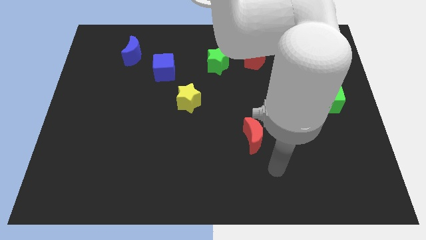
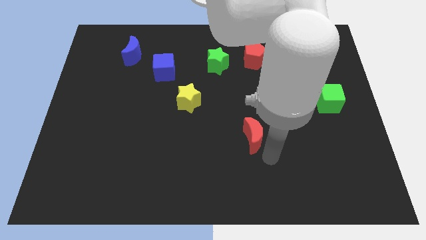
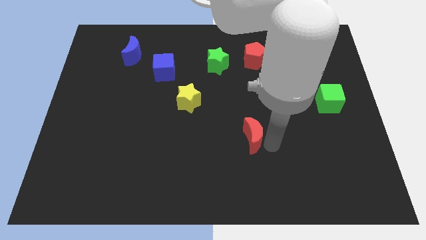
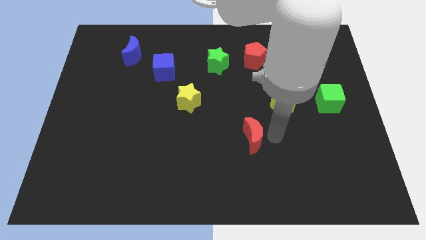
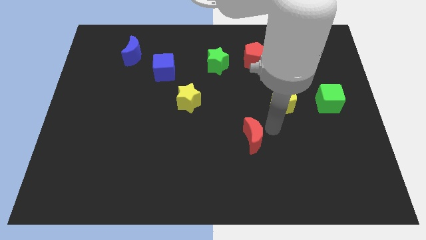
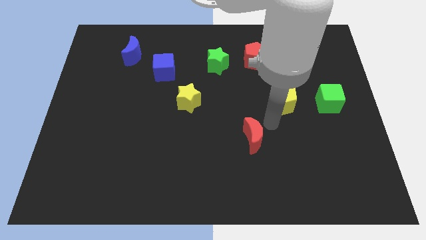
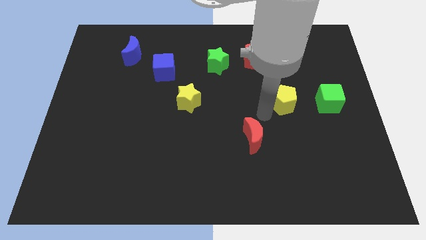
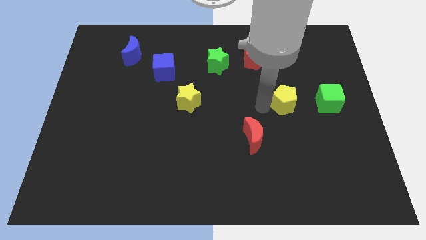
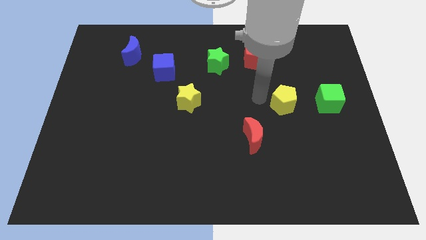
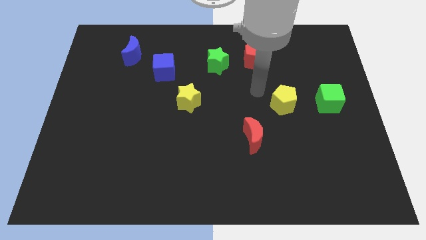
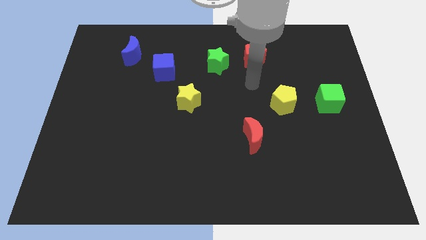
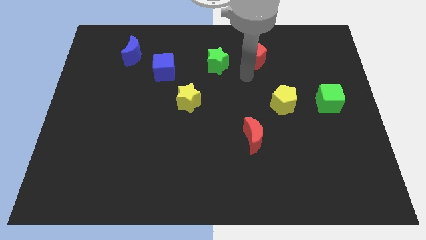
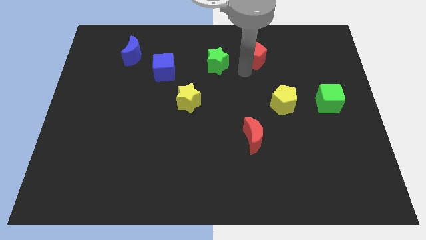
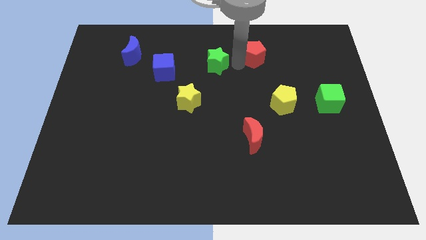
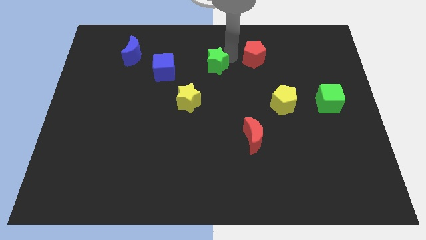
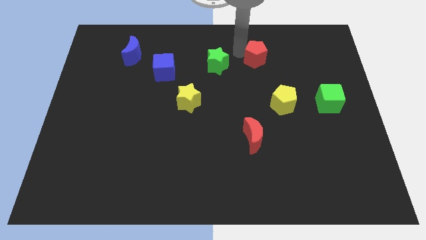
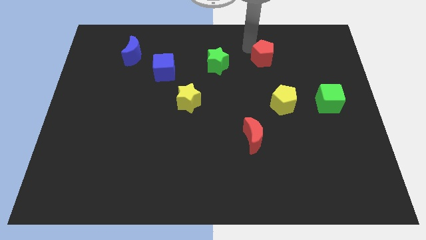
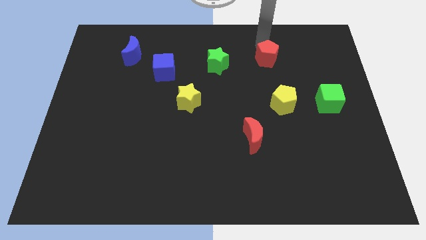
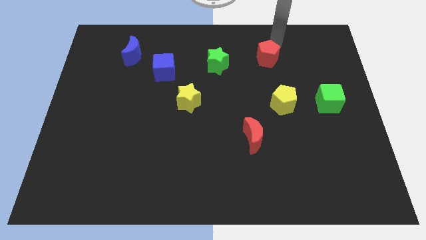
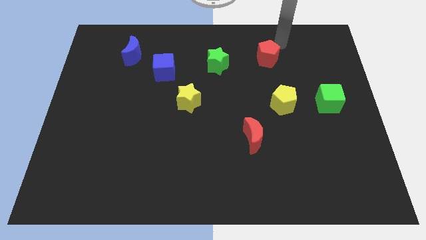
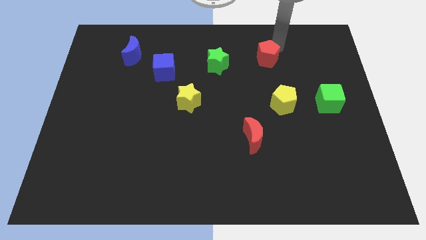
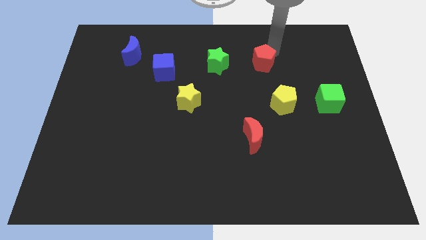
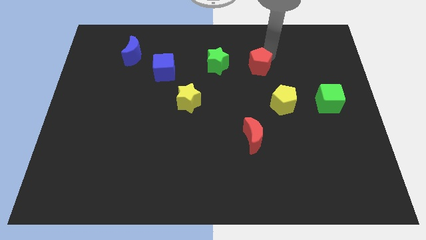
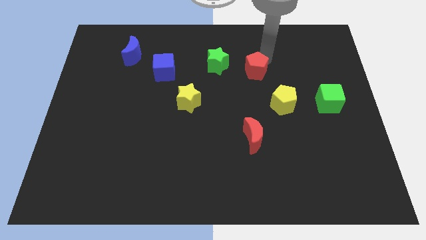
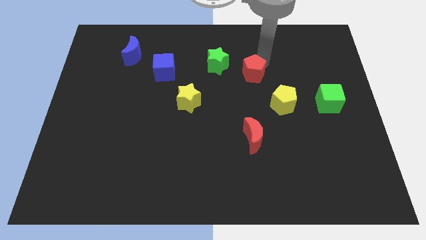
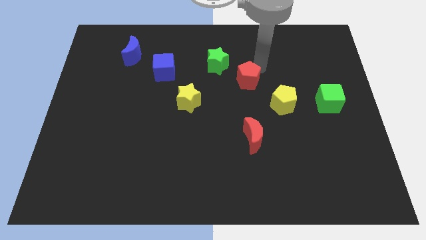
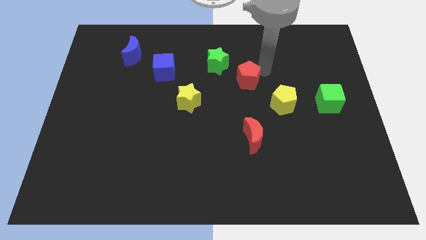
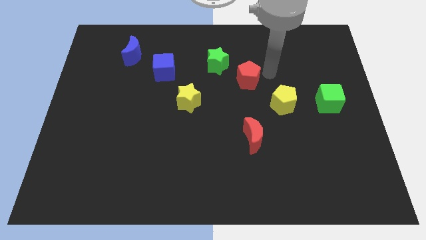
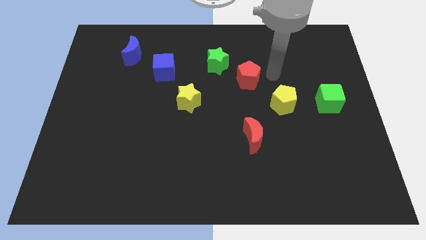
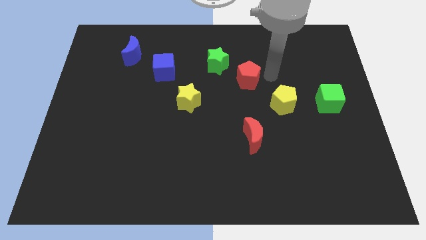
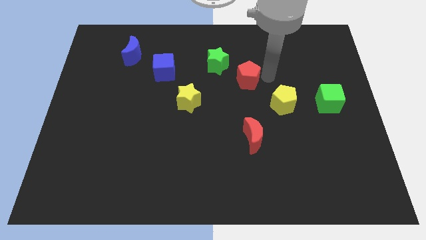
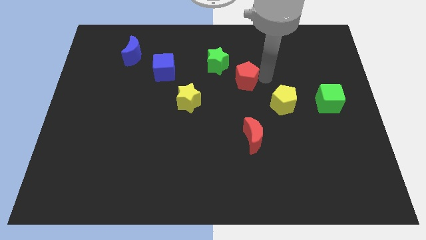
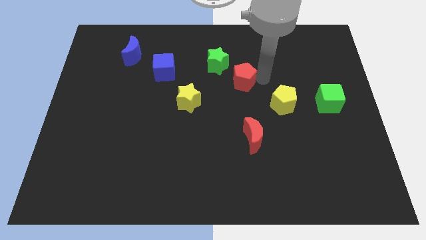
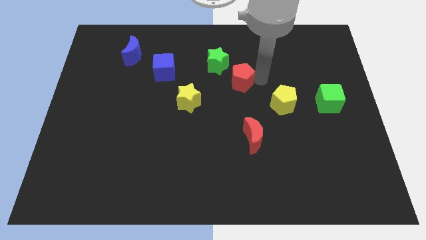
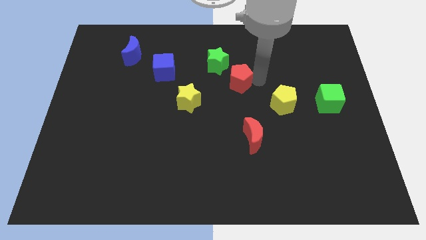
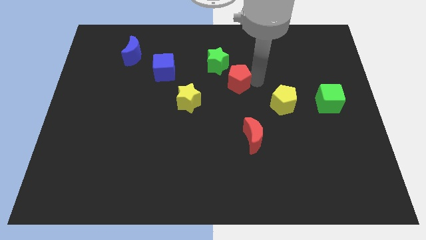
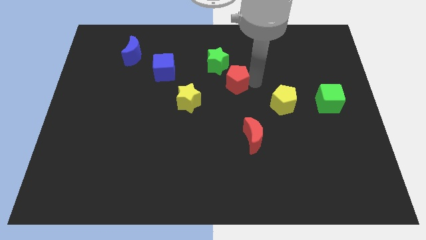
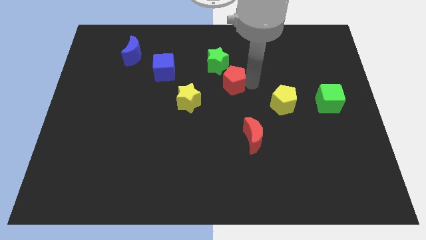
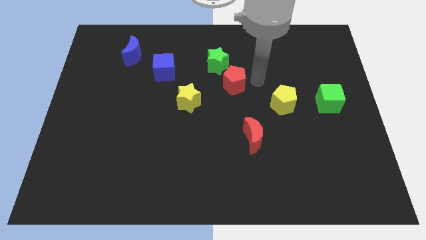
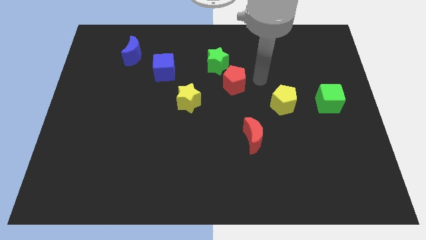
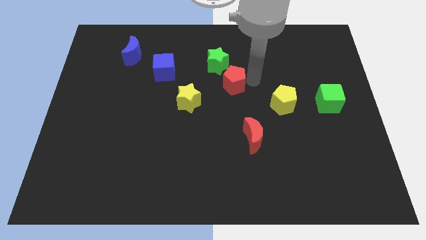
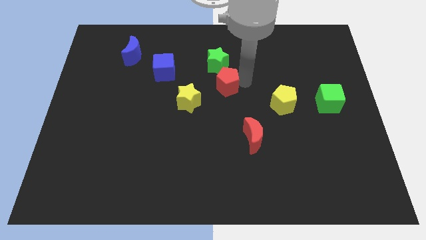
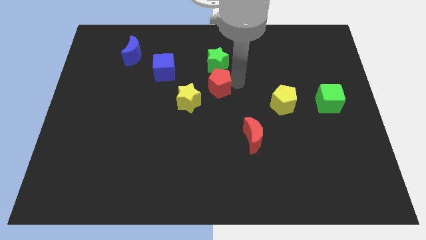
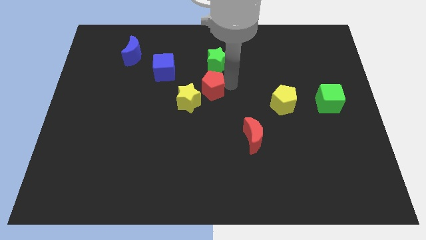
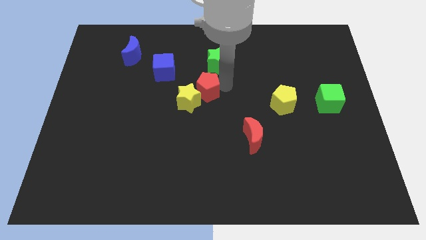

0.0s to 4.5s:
push the red pentagon to the yellow star

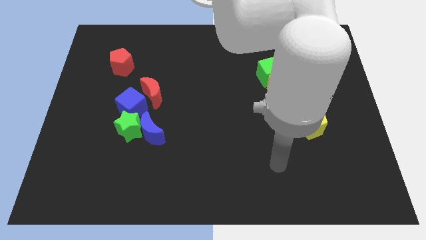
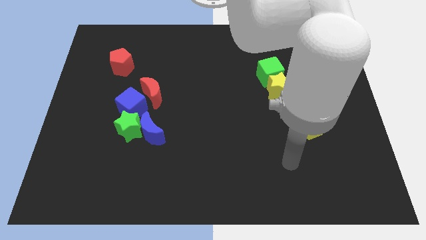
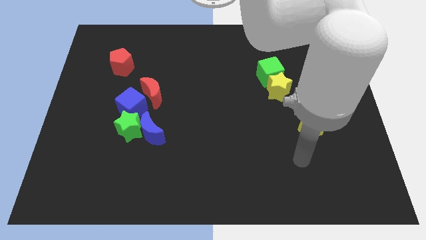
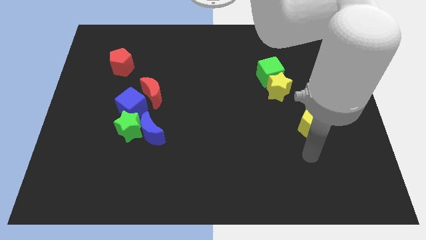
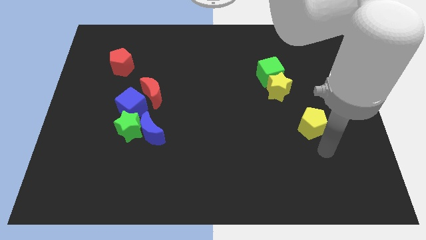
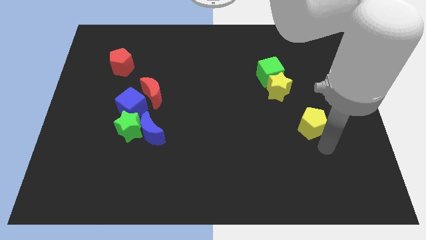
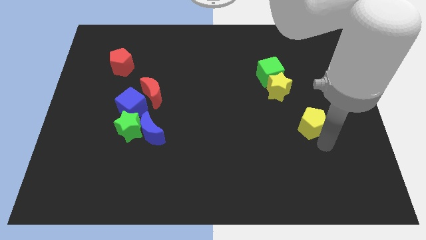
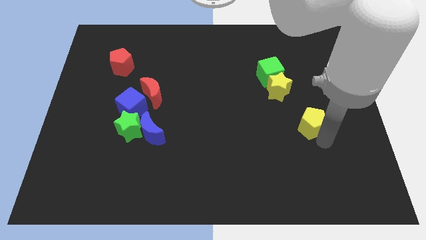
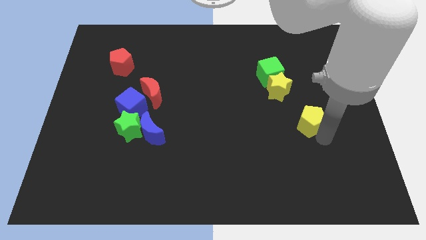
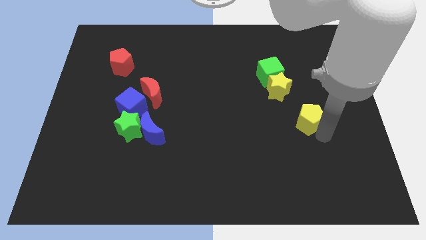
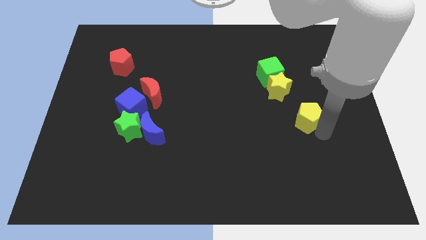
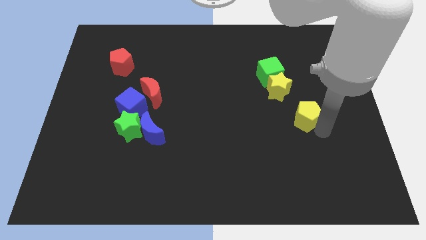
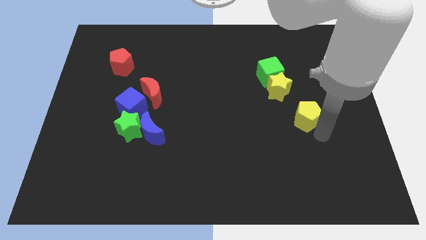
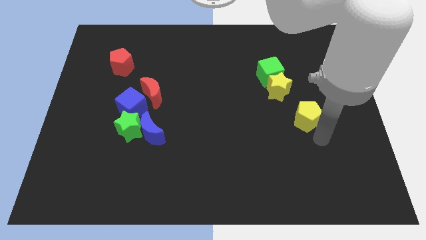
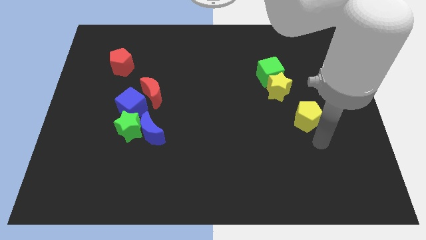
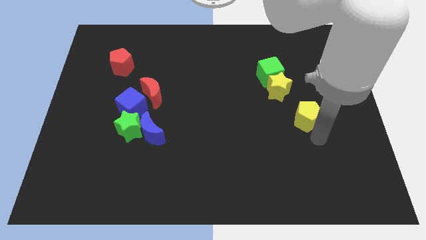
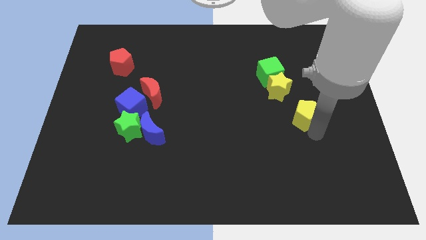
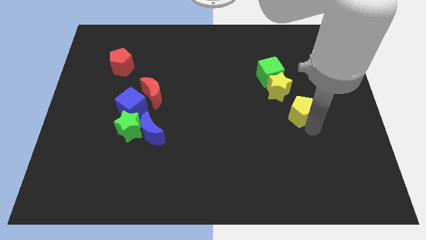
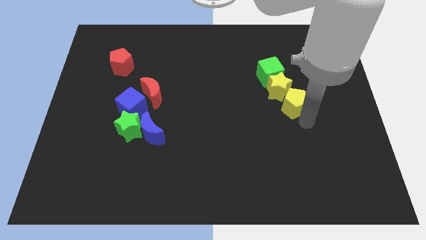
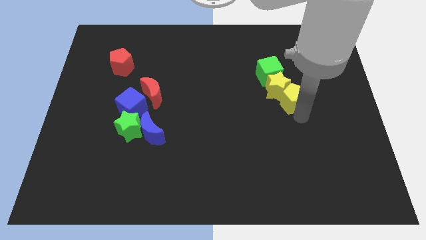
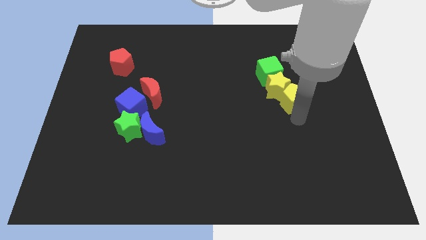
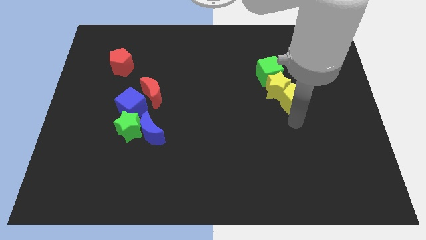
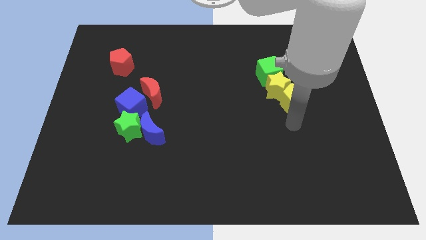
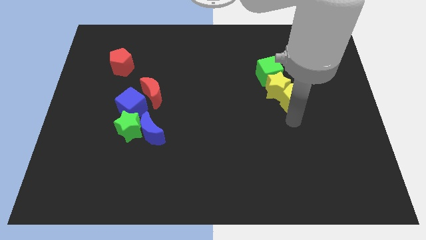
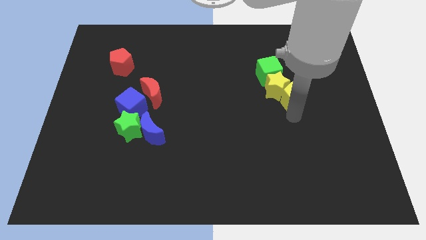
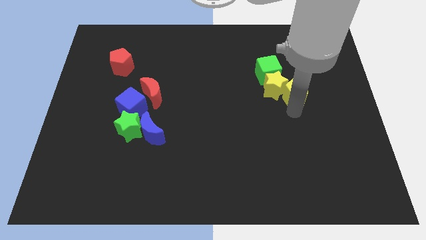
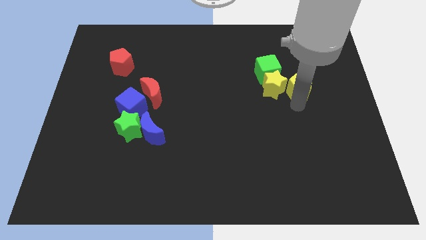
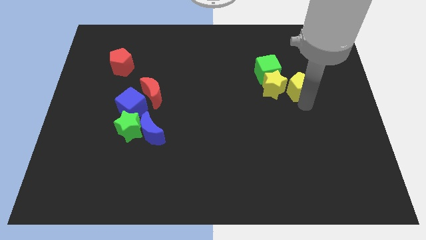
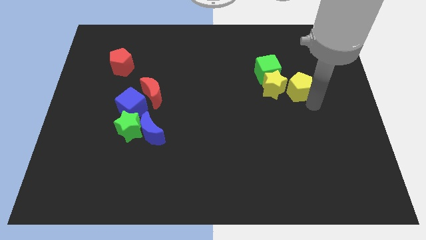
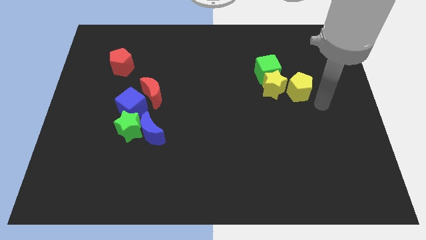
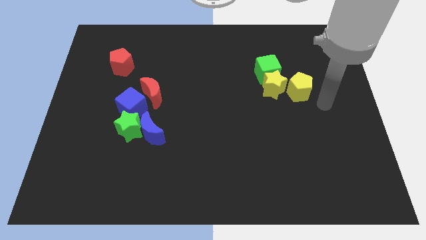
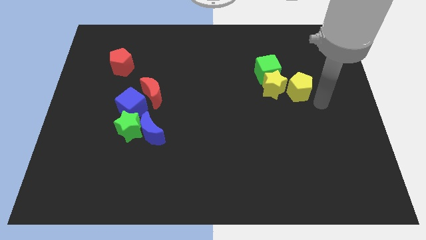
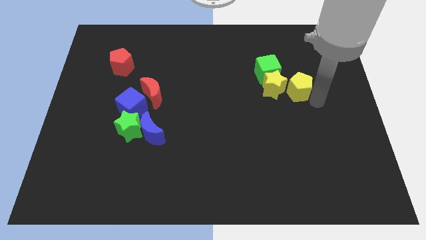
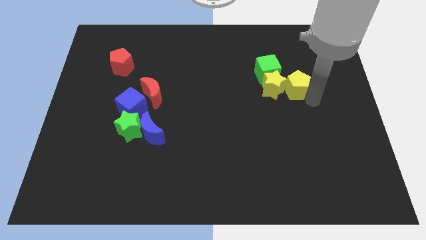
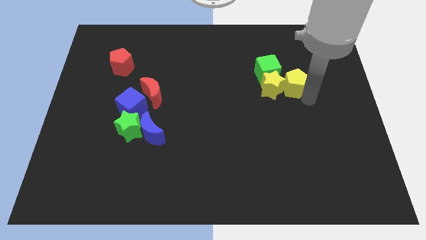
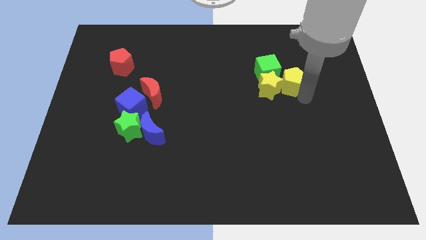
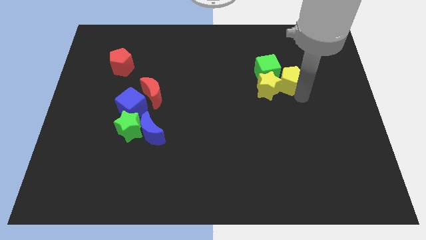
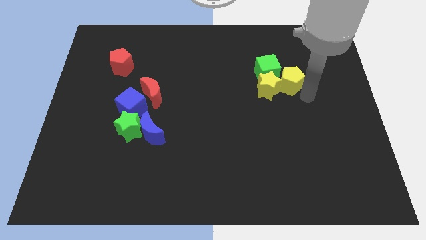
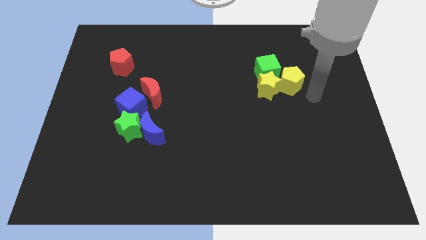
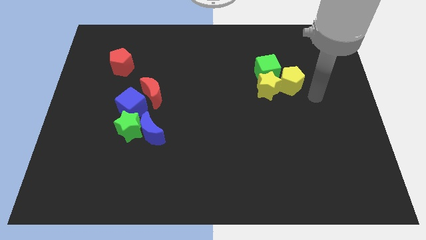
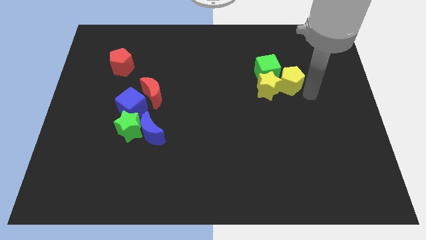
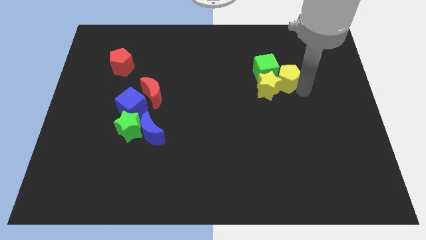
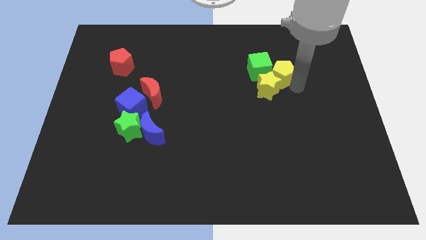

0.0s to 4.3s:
push the yellow pentagon next to the green cube
